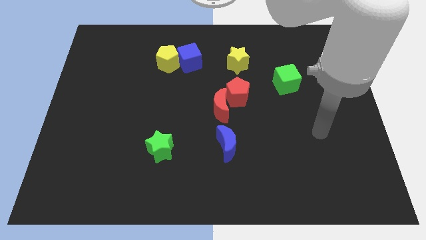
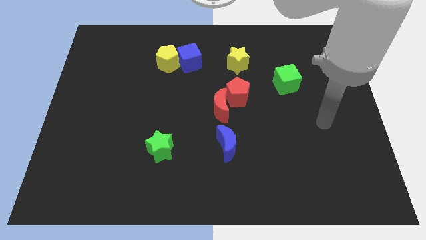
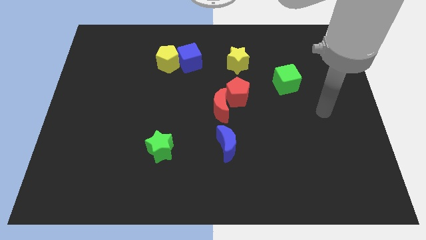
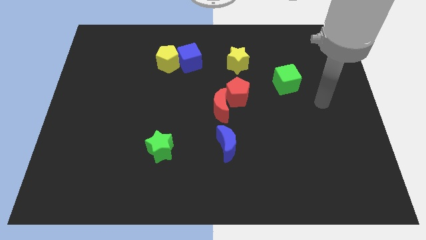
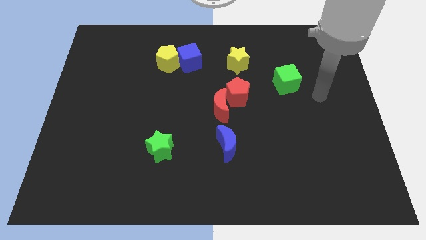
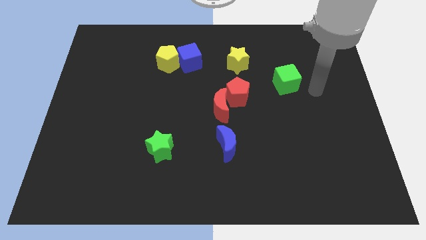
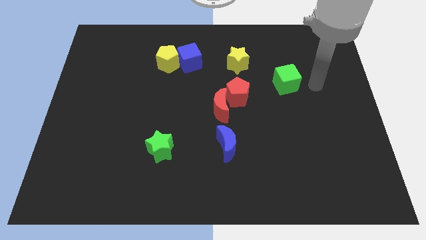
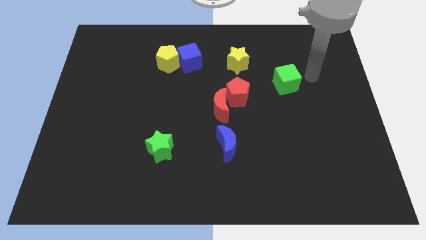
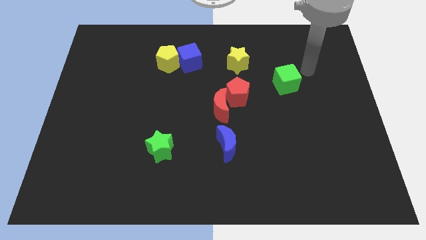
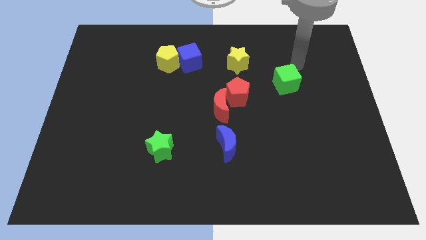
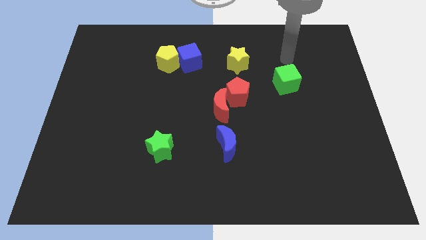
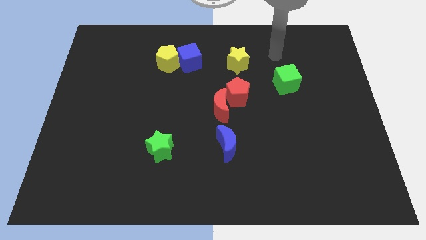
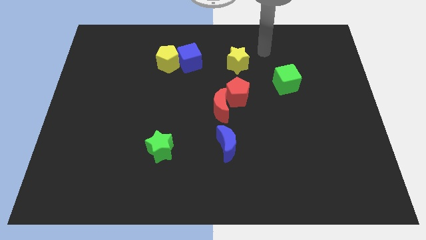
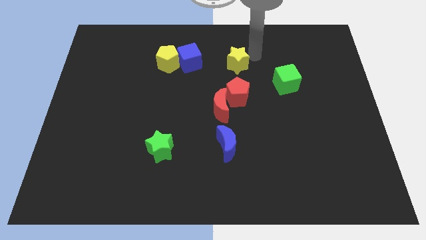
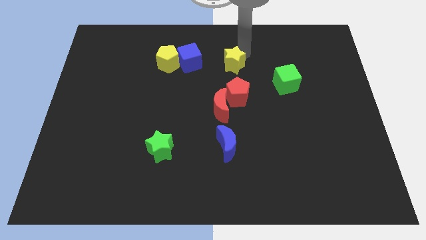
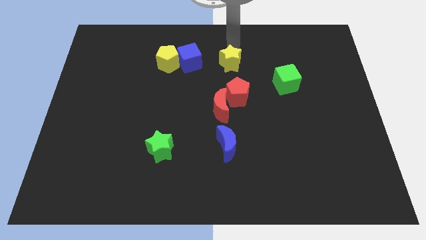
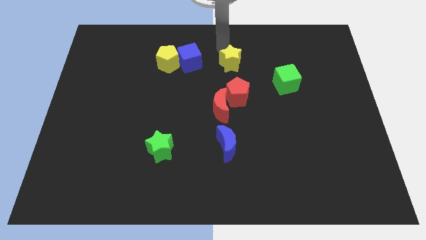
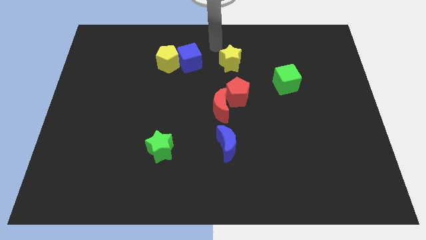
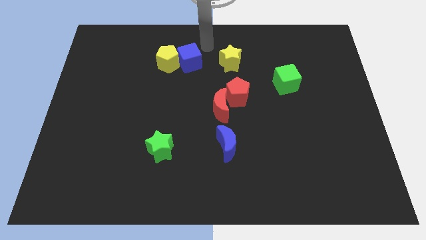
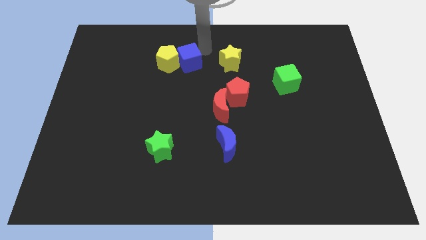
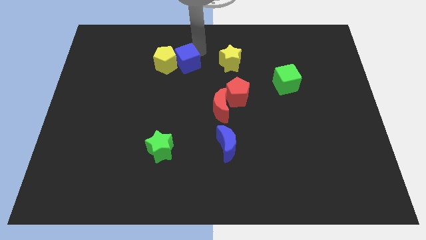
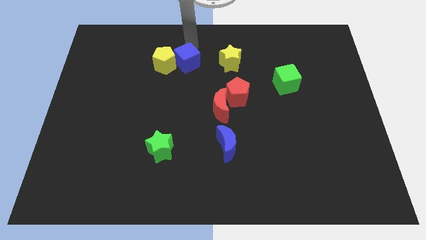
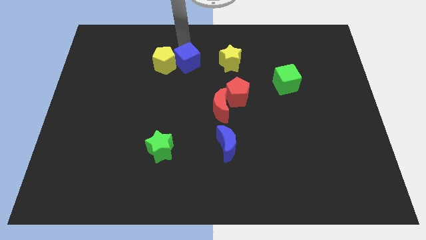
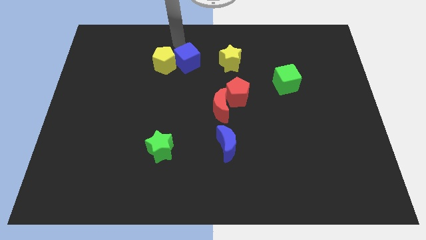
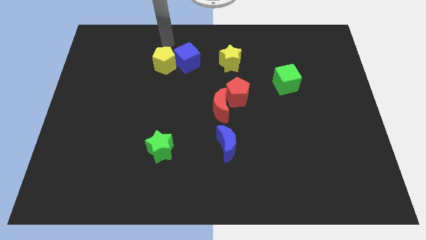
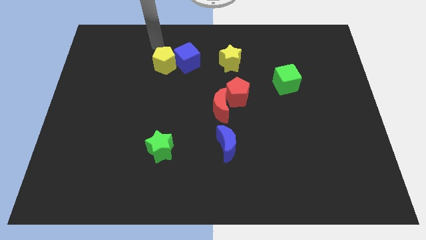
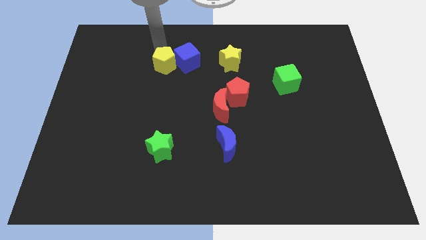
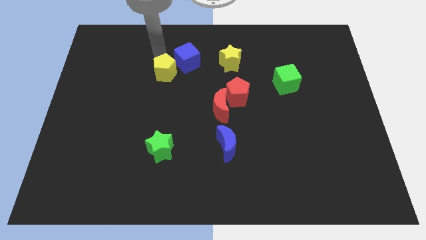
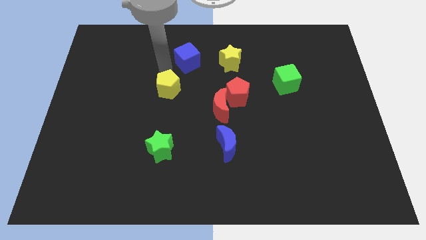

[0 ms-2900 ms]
pull the blue cube apart from the yellow pentagon

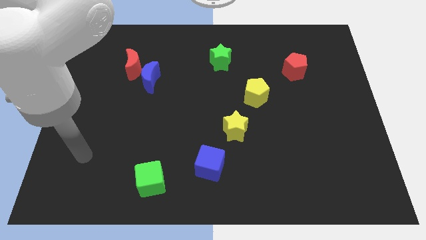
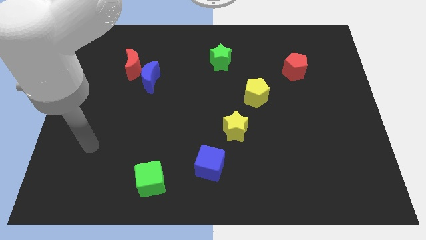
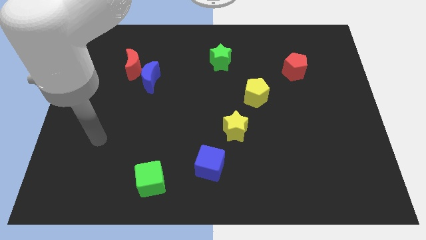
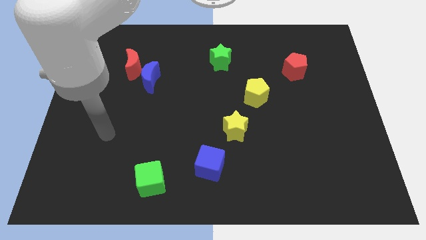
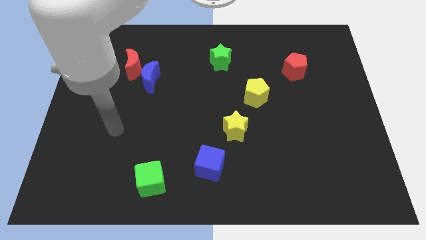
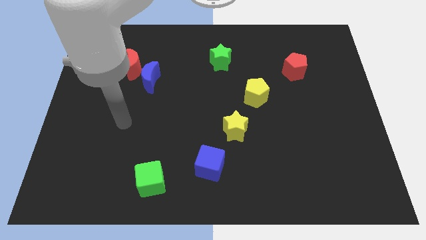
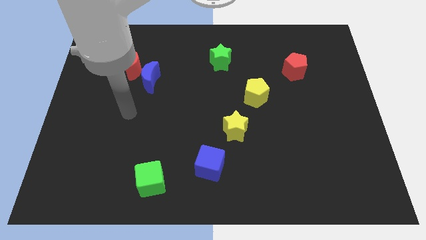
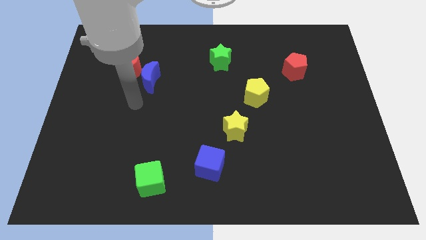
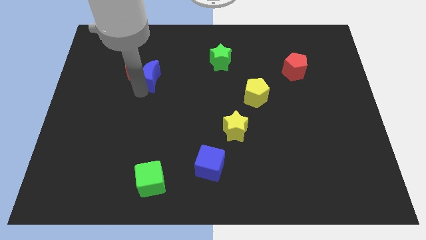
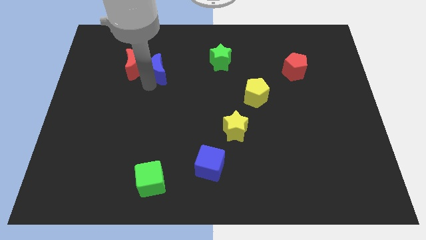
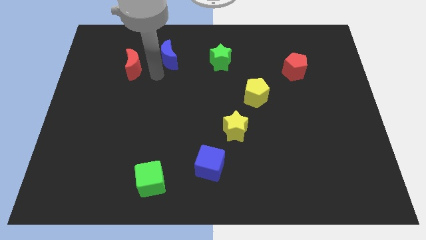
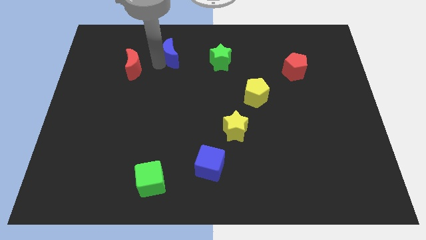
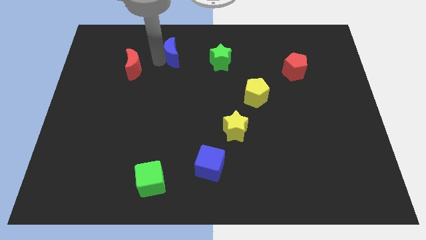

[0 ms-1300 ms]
move the red moon away from the blue moon

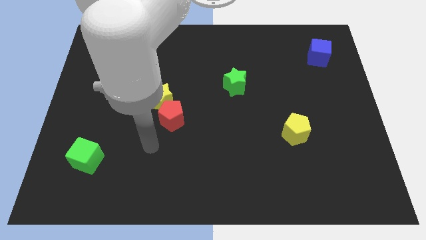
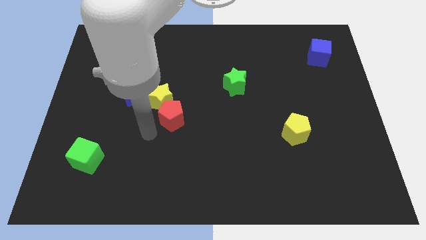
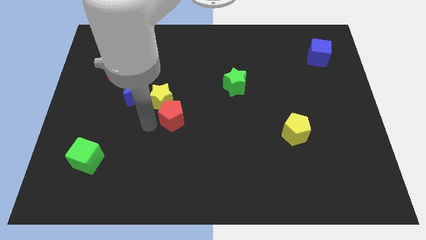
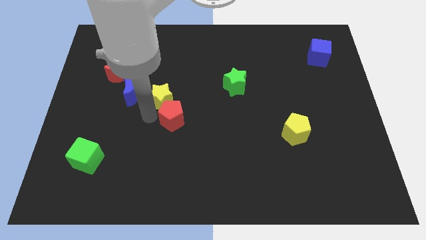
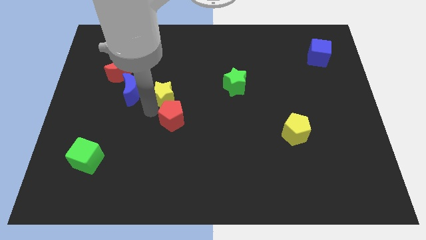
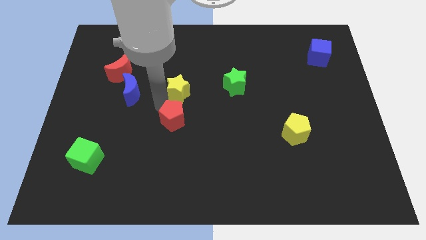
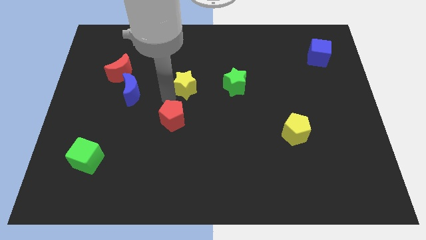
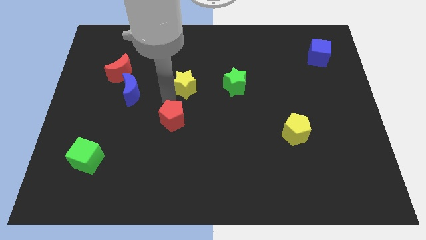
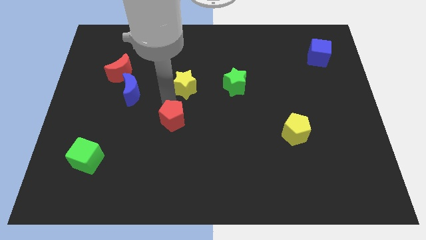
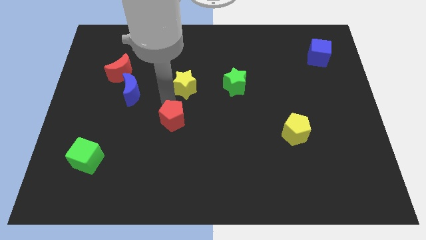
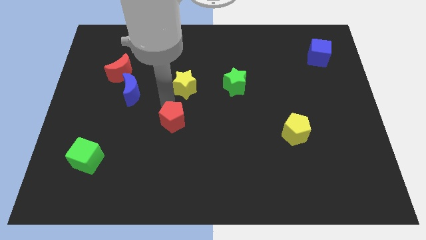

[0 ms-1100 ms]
move the red pentagon away from the yellow star

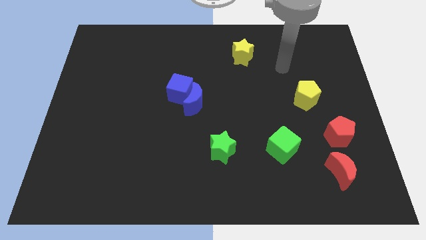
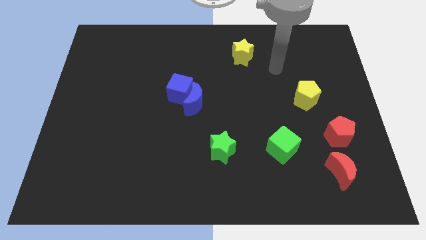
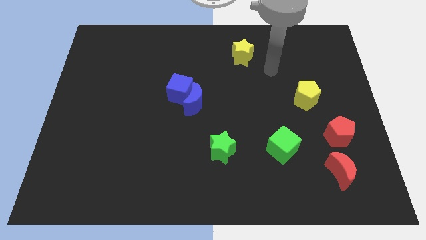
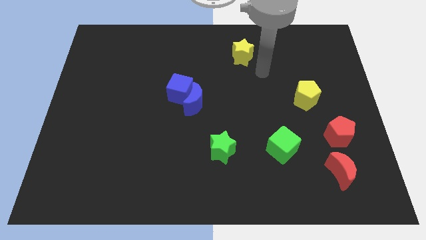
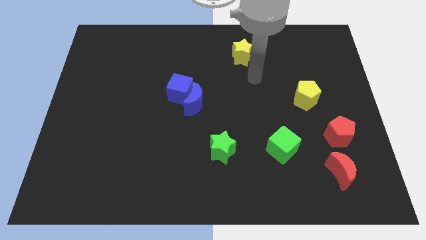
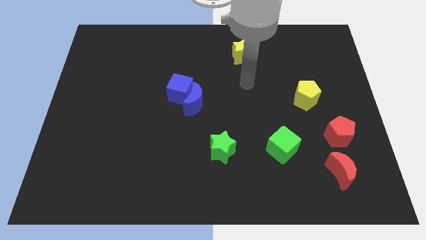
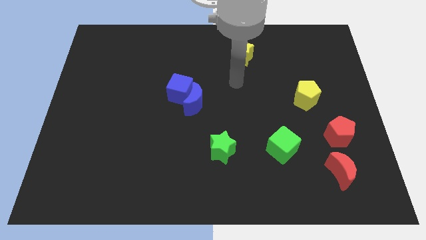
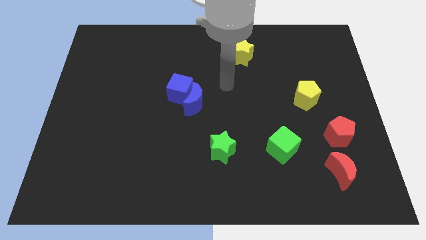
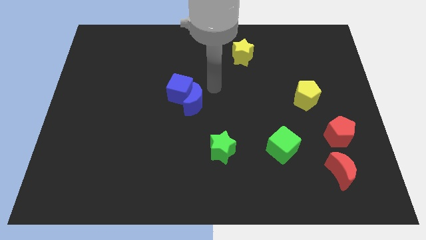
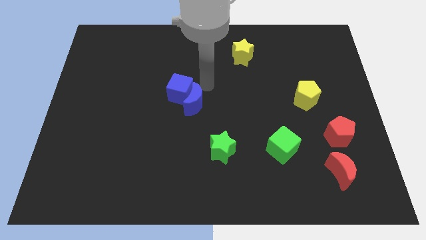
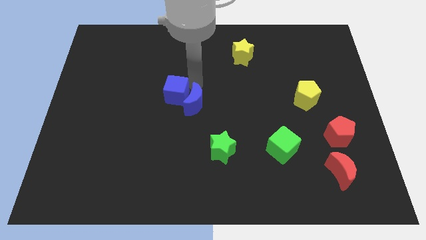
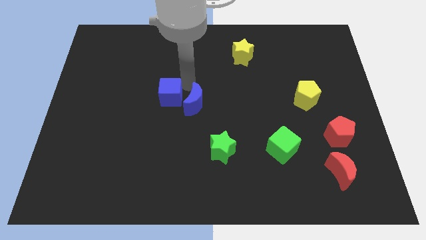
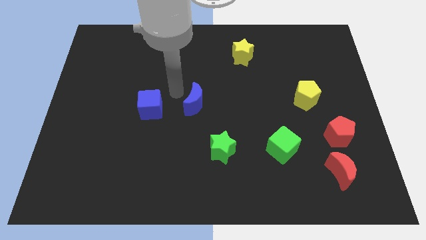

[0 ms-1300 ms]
pull the blue moon apart from the blue cube

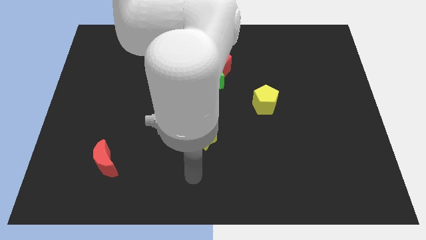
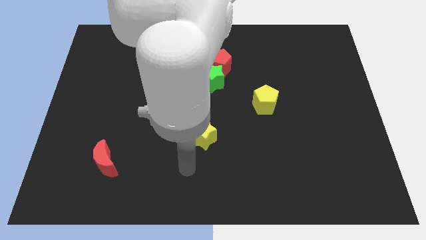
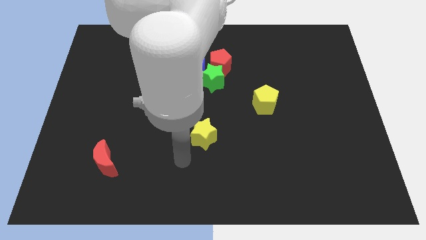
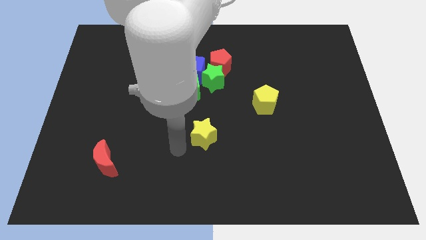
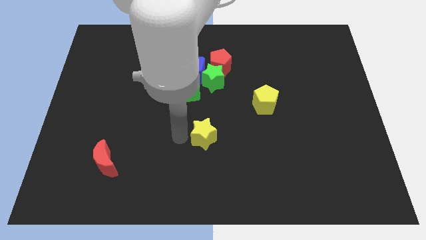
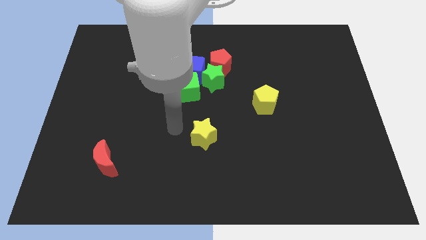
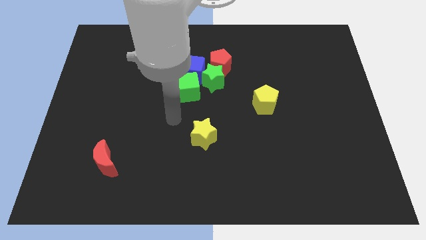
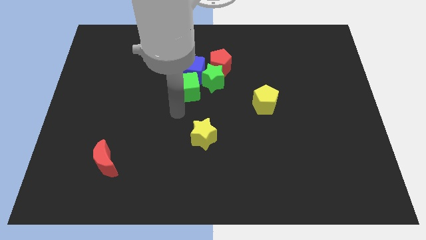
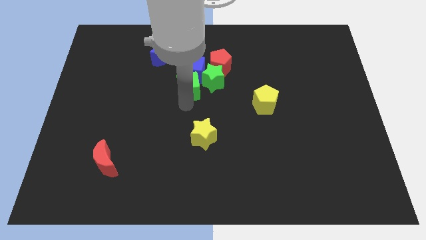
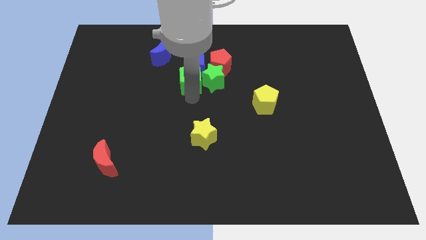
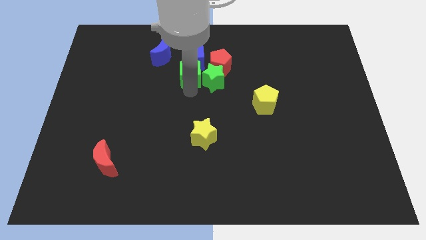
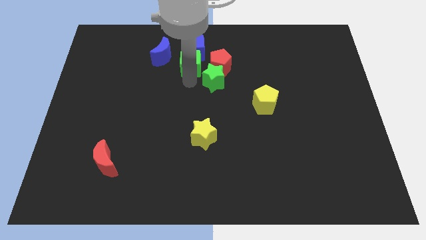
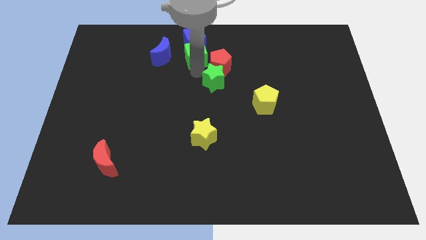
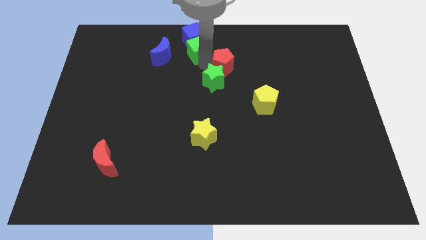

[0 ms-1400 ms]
separate the green star from the red pentagon, blue cube, and green cube

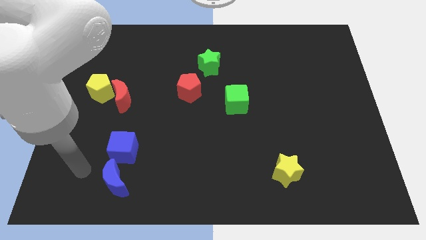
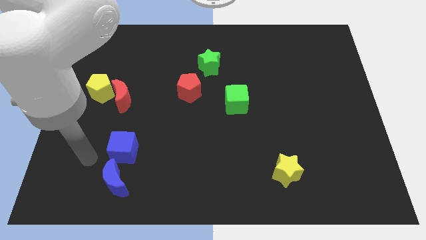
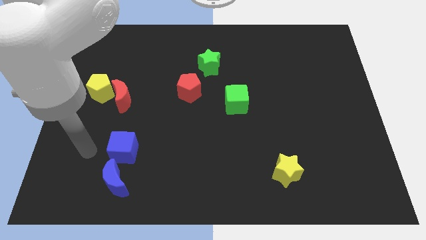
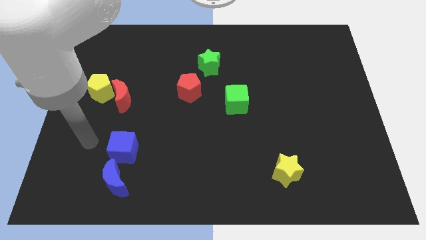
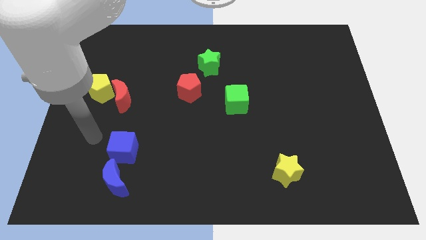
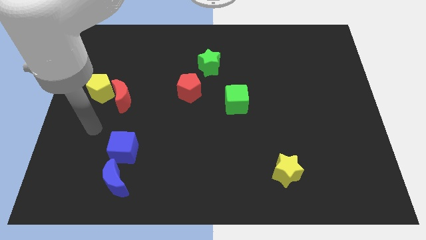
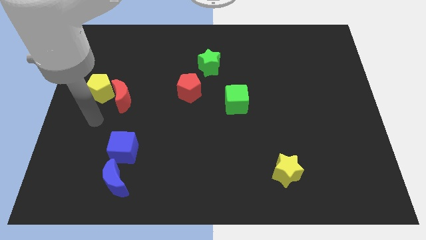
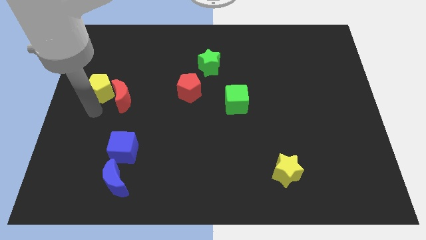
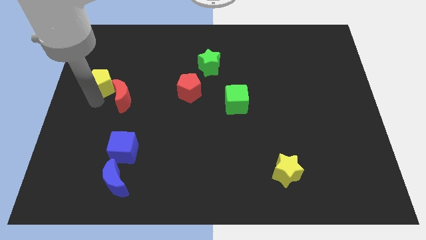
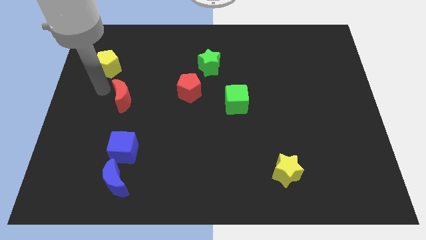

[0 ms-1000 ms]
separate the red moon from the yellow pentagon

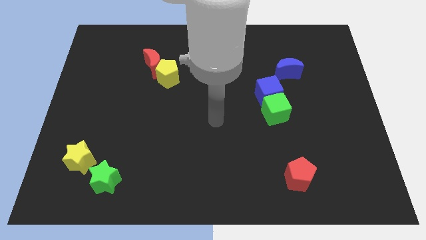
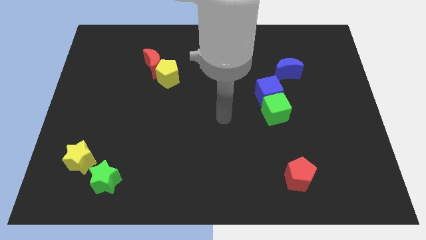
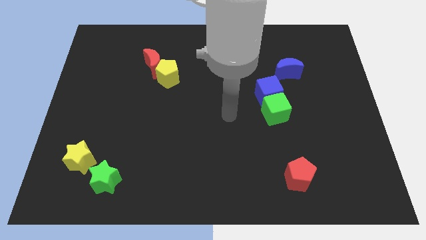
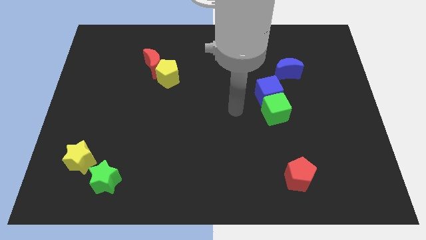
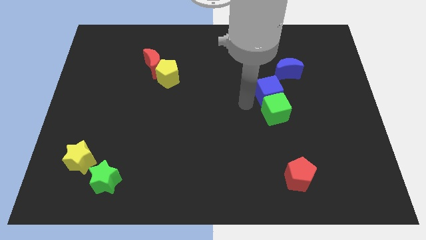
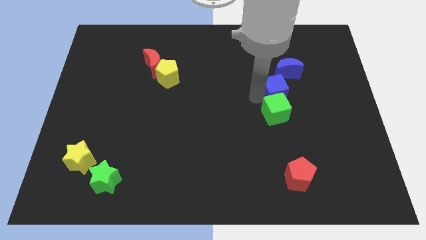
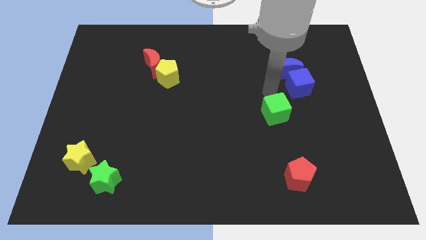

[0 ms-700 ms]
pull the green cube apart from the blue cube
